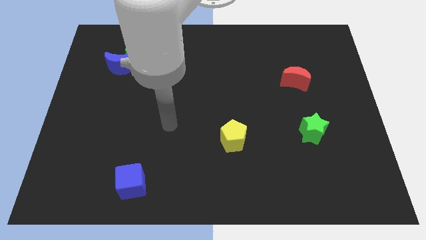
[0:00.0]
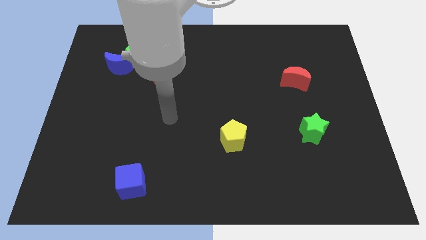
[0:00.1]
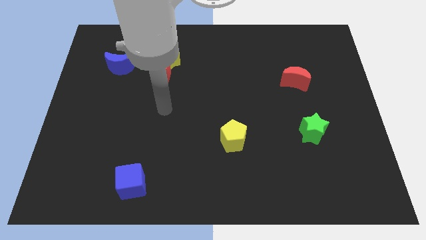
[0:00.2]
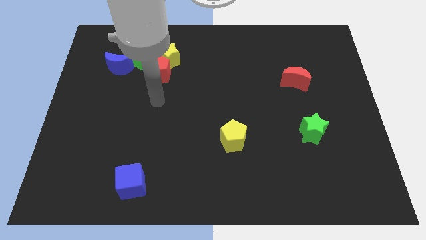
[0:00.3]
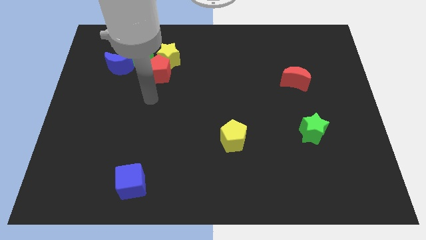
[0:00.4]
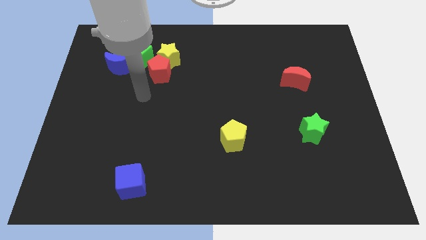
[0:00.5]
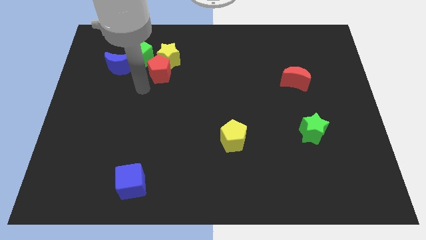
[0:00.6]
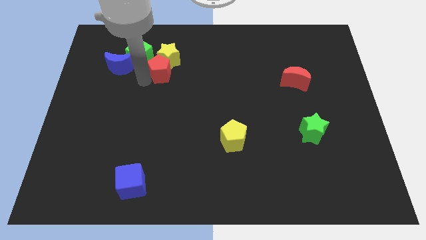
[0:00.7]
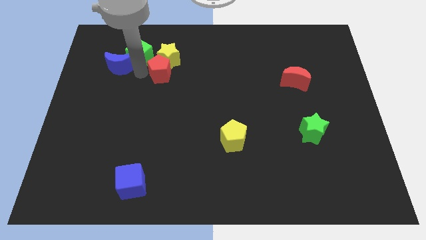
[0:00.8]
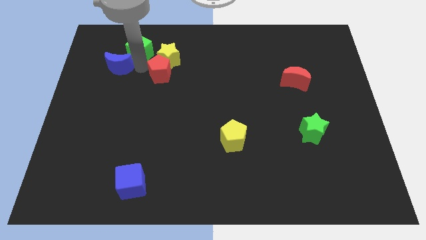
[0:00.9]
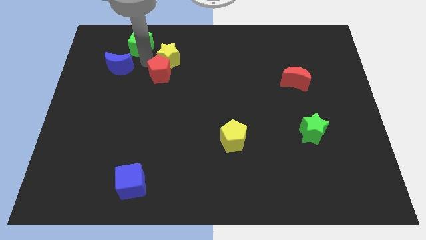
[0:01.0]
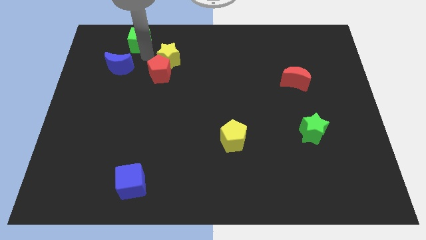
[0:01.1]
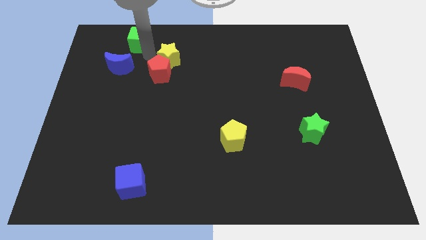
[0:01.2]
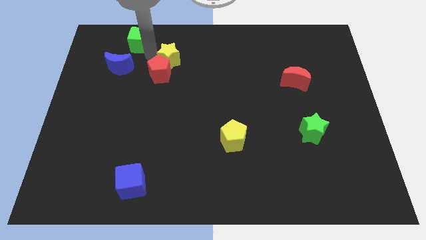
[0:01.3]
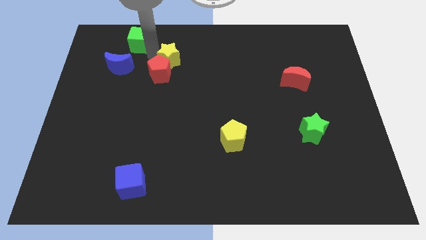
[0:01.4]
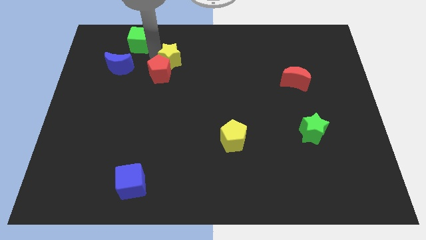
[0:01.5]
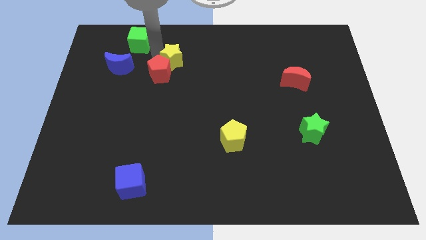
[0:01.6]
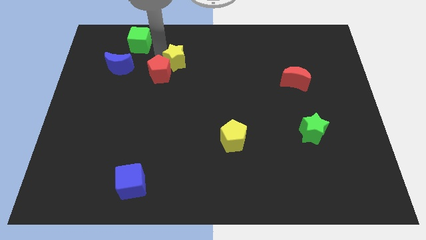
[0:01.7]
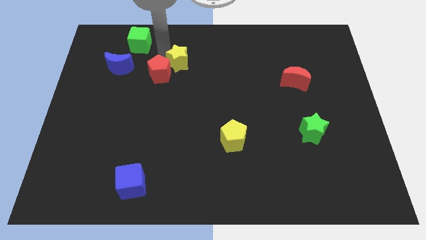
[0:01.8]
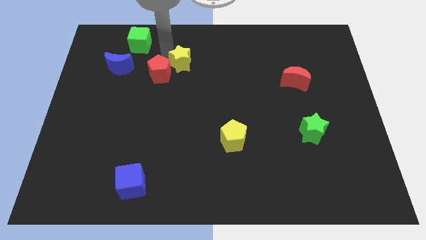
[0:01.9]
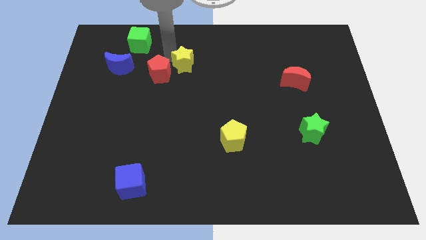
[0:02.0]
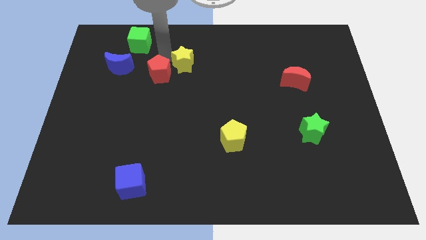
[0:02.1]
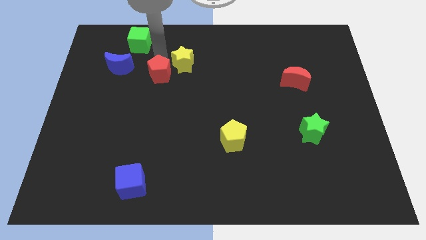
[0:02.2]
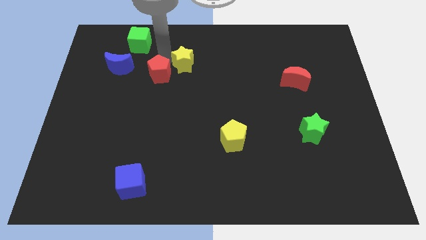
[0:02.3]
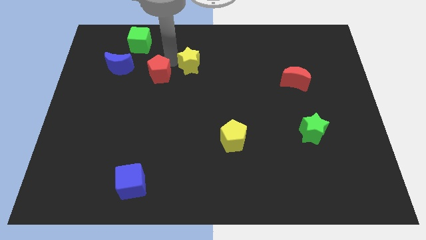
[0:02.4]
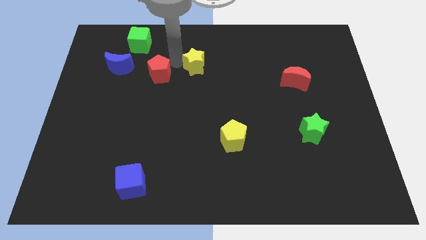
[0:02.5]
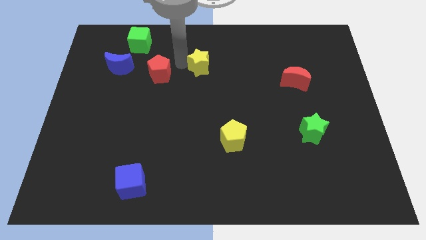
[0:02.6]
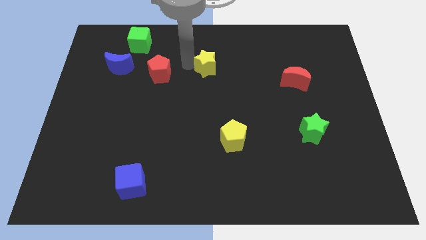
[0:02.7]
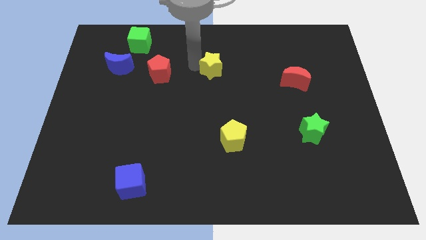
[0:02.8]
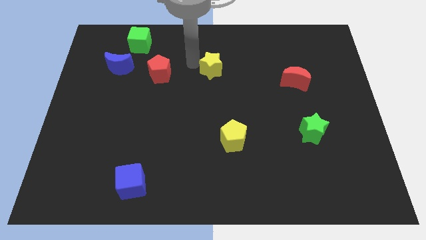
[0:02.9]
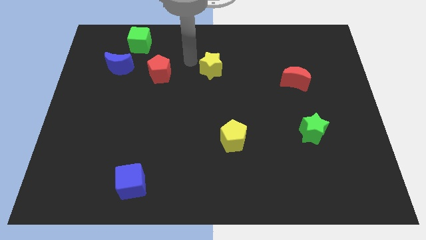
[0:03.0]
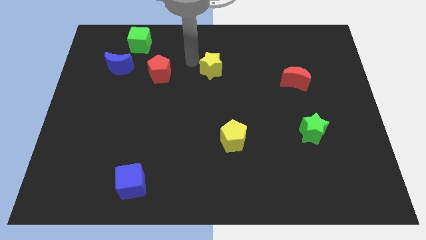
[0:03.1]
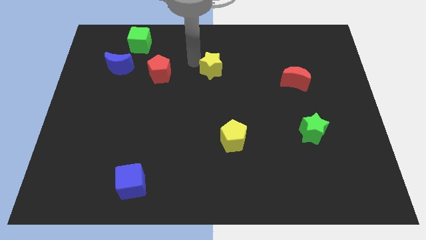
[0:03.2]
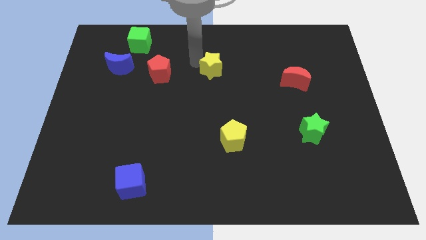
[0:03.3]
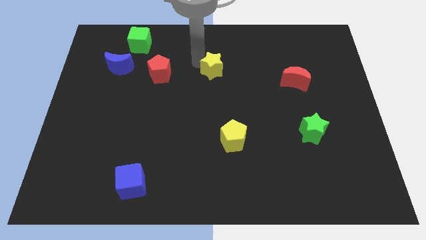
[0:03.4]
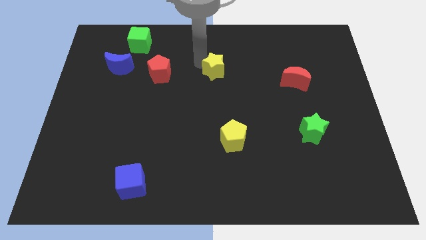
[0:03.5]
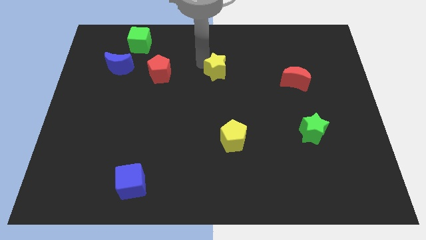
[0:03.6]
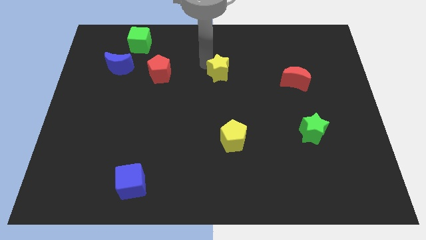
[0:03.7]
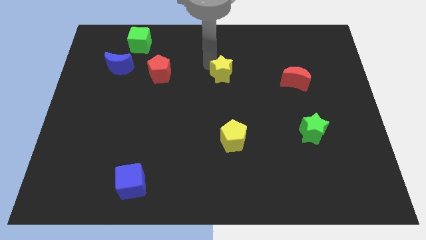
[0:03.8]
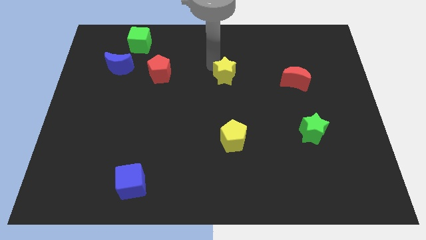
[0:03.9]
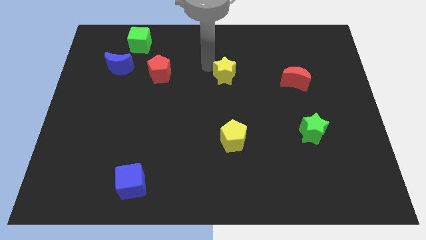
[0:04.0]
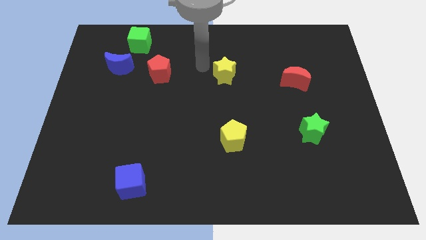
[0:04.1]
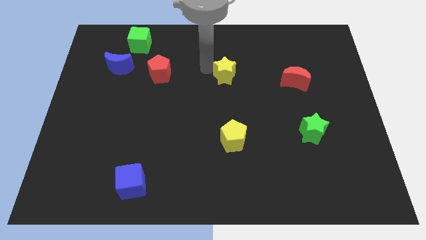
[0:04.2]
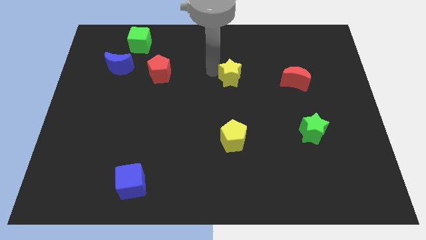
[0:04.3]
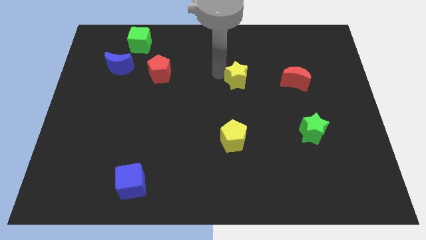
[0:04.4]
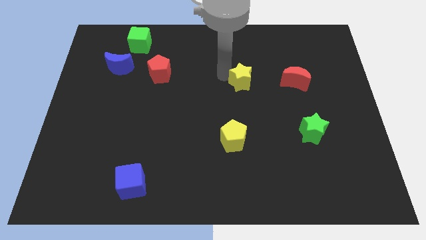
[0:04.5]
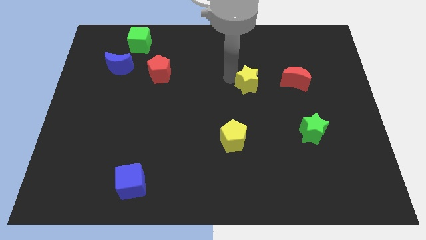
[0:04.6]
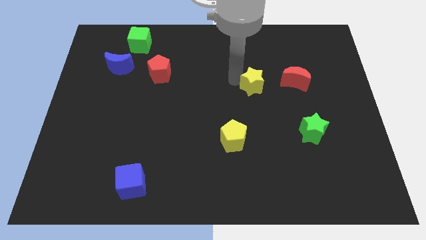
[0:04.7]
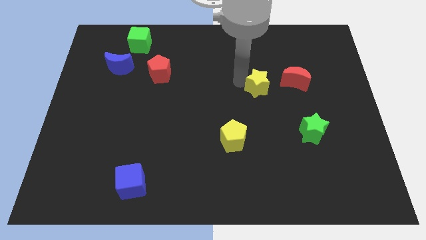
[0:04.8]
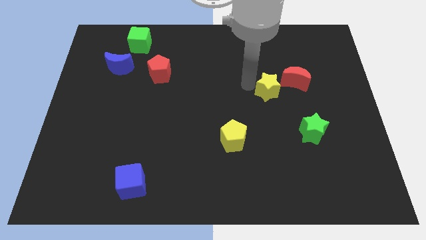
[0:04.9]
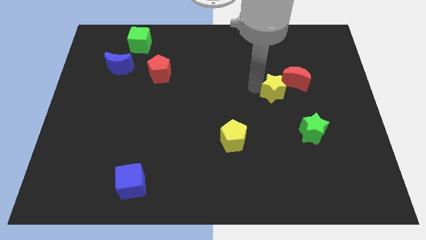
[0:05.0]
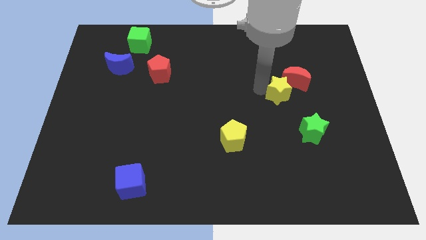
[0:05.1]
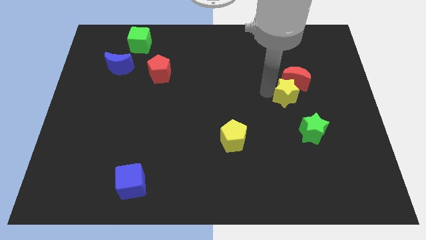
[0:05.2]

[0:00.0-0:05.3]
slide the yellow star to the top of the green star

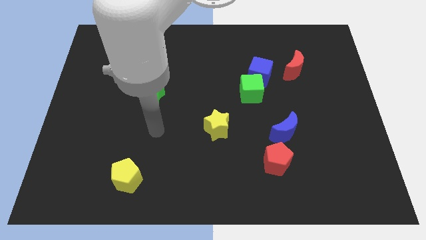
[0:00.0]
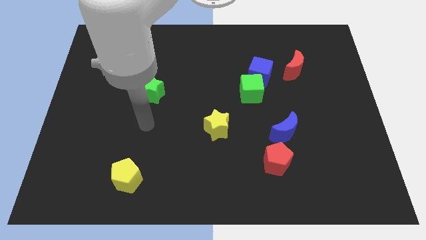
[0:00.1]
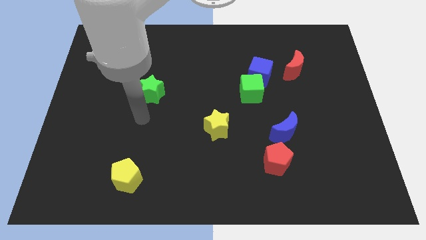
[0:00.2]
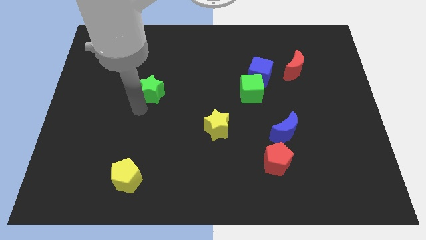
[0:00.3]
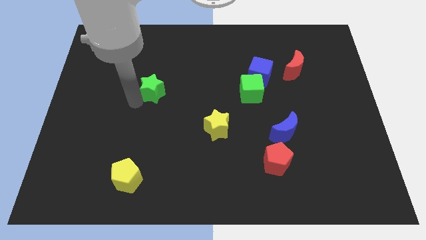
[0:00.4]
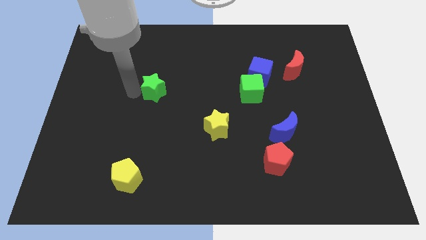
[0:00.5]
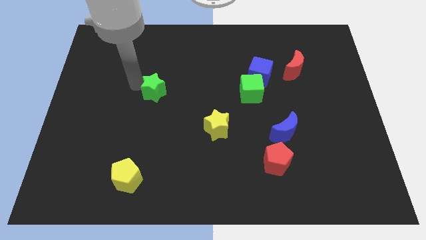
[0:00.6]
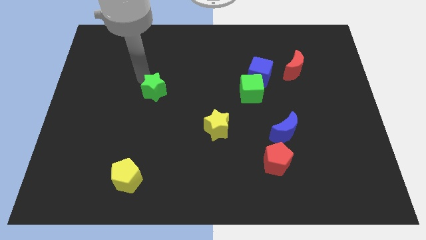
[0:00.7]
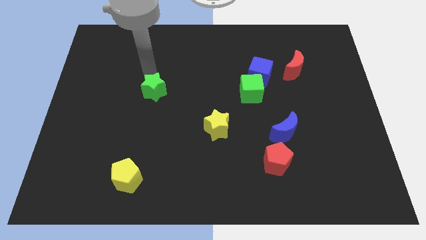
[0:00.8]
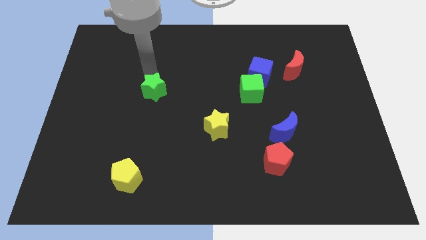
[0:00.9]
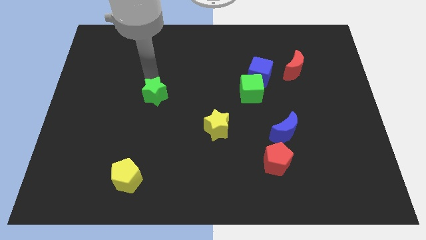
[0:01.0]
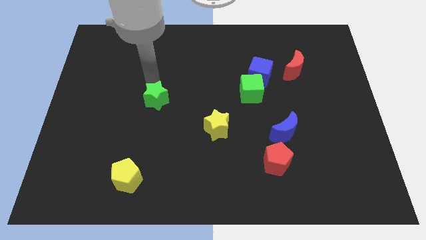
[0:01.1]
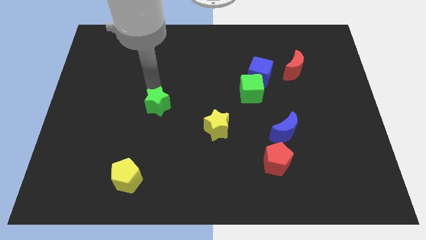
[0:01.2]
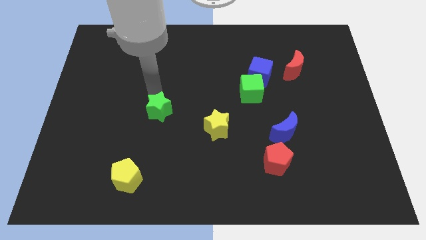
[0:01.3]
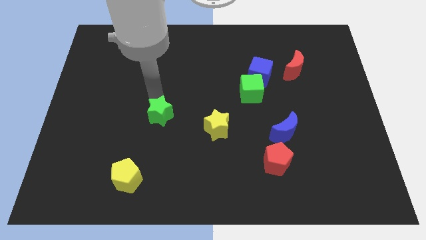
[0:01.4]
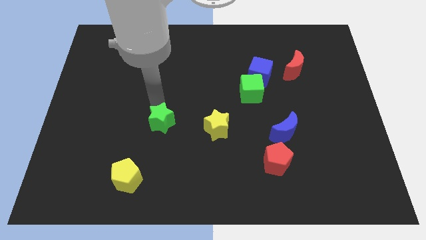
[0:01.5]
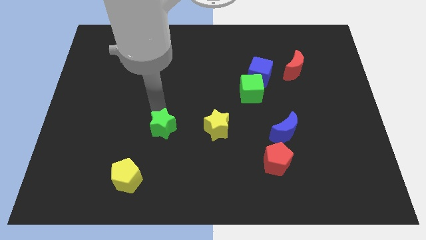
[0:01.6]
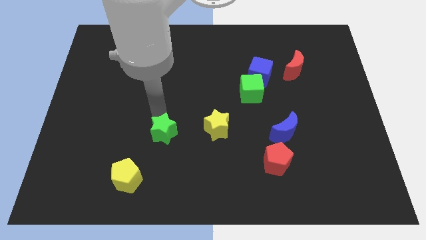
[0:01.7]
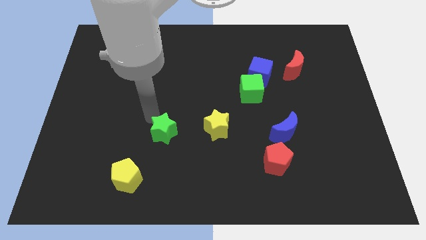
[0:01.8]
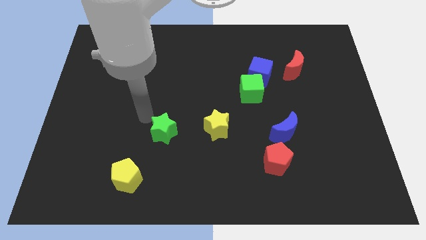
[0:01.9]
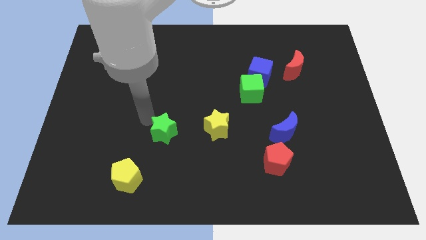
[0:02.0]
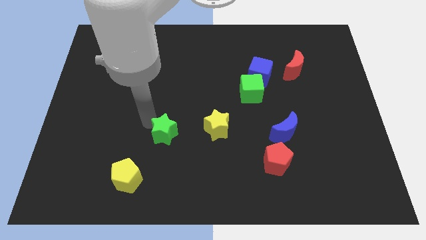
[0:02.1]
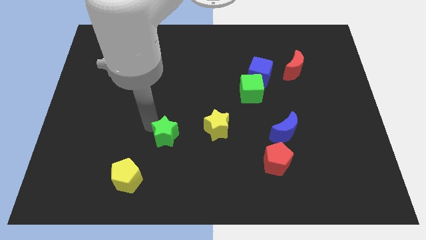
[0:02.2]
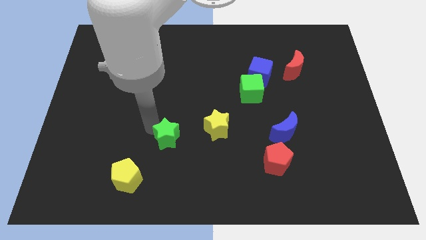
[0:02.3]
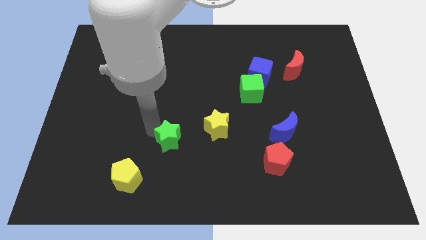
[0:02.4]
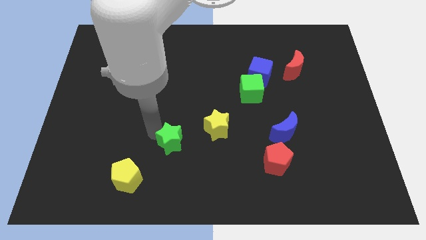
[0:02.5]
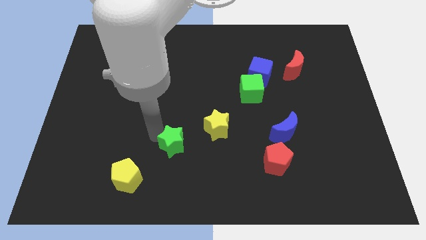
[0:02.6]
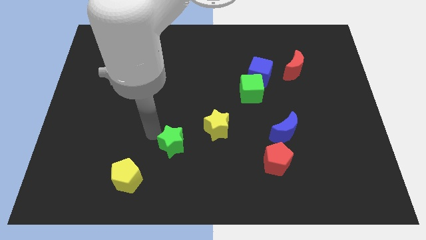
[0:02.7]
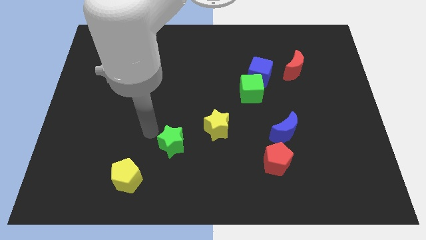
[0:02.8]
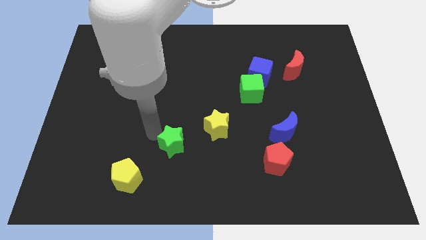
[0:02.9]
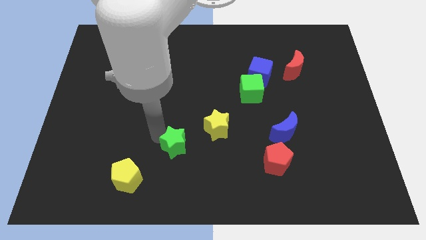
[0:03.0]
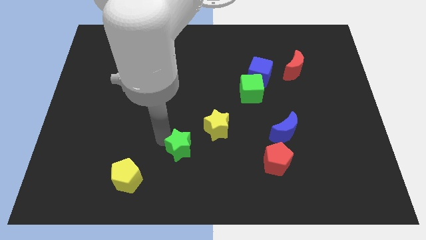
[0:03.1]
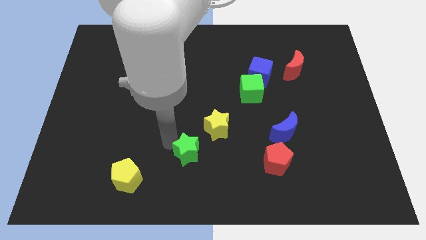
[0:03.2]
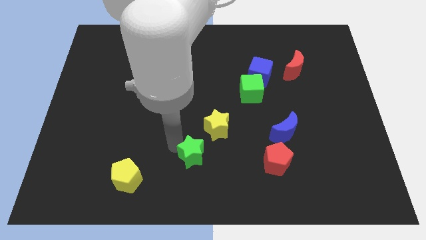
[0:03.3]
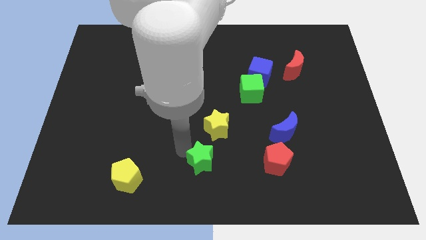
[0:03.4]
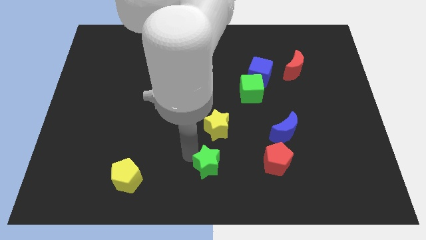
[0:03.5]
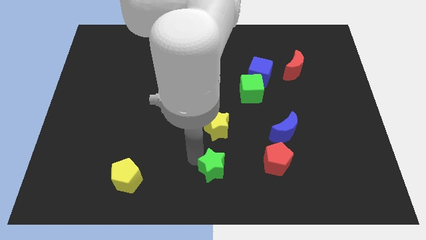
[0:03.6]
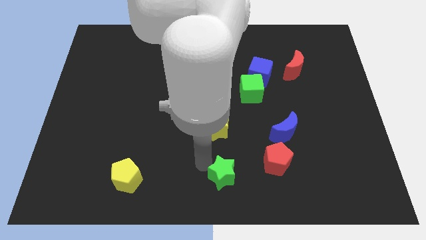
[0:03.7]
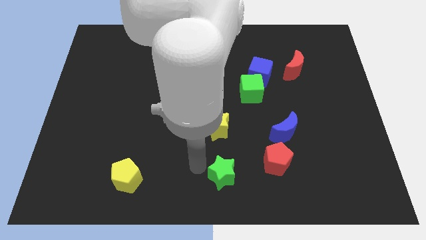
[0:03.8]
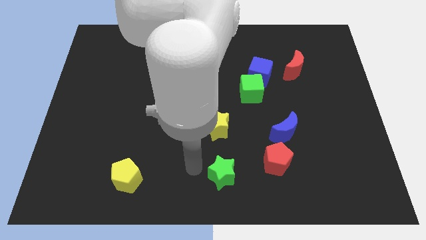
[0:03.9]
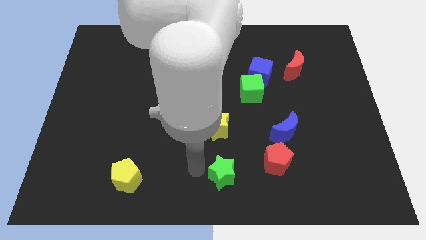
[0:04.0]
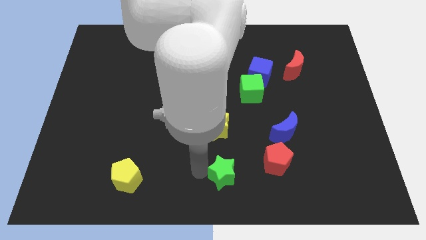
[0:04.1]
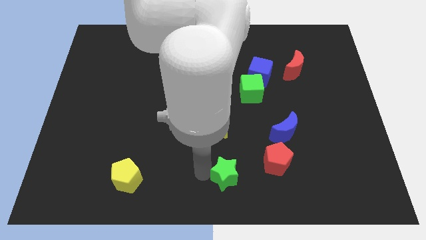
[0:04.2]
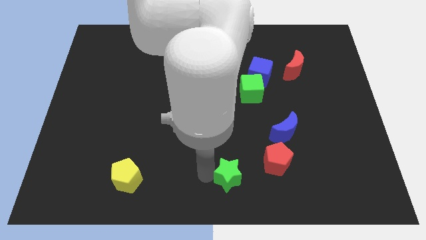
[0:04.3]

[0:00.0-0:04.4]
put the green star diagonally down and to the left of the red pentagon
